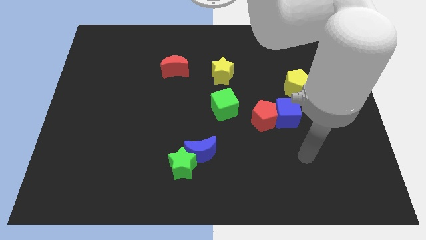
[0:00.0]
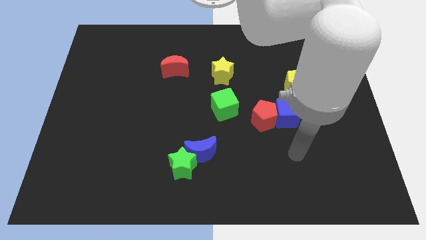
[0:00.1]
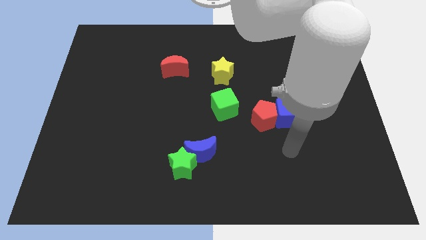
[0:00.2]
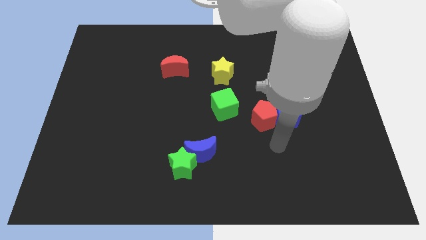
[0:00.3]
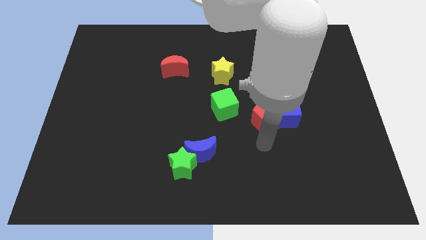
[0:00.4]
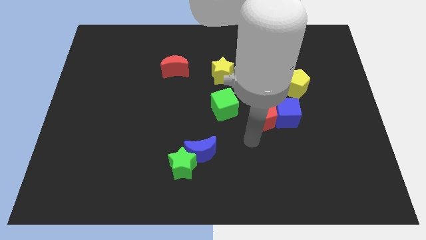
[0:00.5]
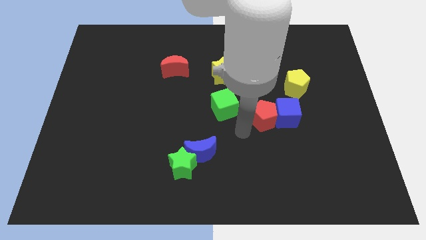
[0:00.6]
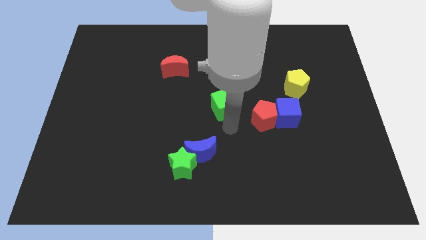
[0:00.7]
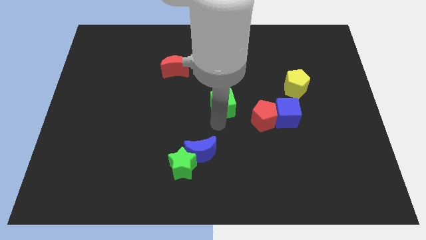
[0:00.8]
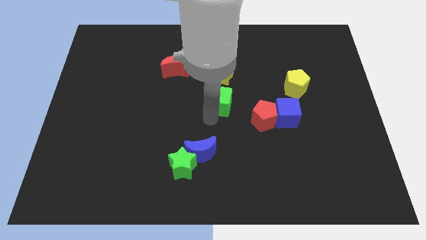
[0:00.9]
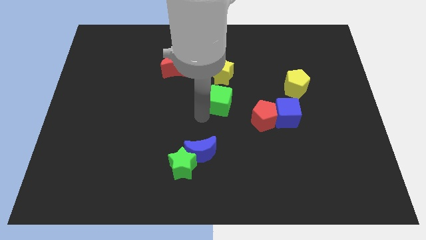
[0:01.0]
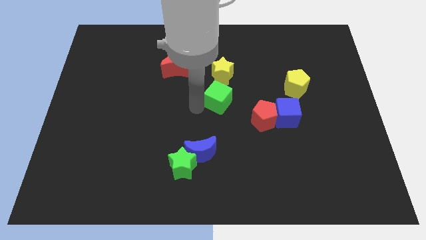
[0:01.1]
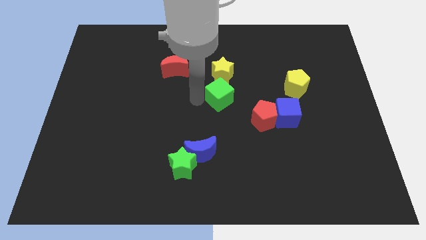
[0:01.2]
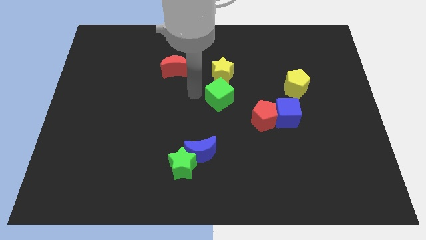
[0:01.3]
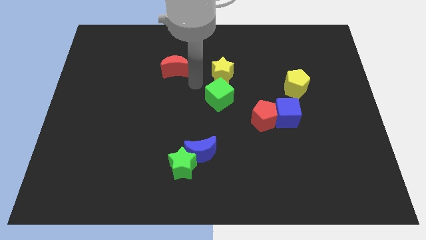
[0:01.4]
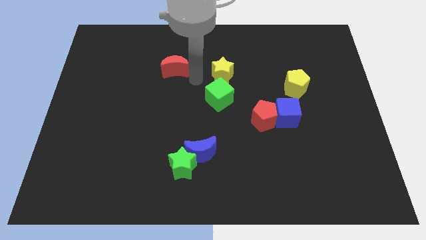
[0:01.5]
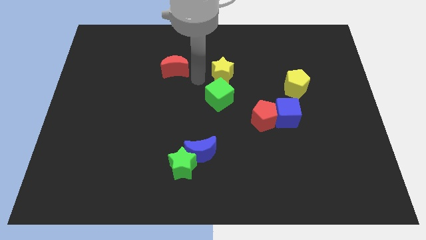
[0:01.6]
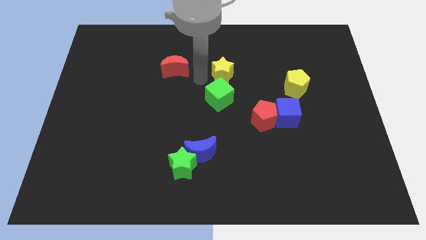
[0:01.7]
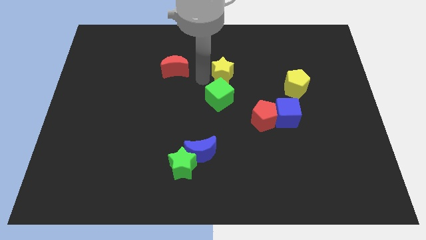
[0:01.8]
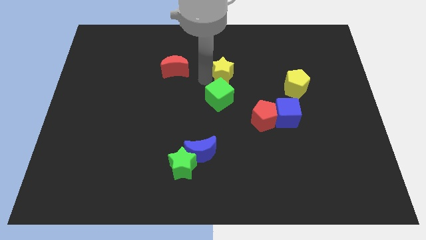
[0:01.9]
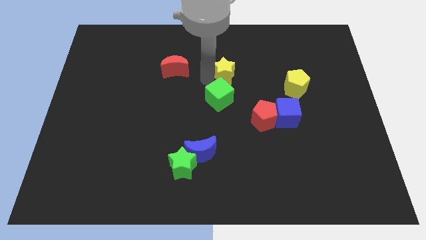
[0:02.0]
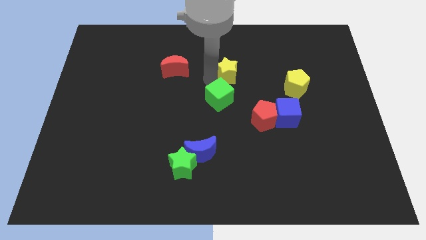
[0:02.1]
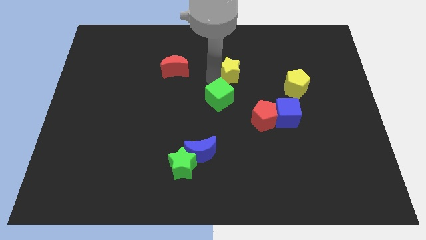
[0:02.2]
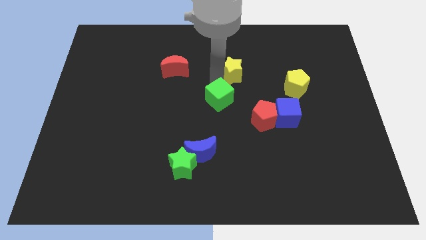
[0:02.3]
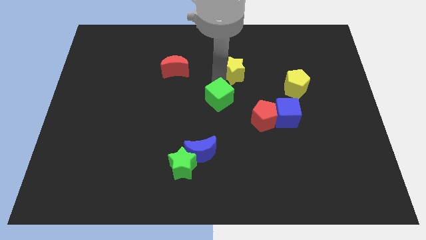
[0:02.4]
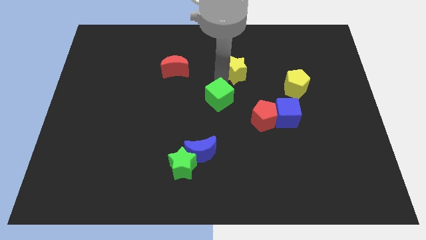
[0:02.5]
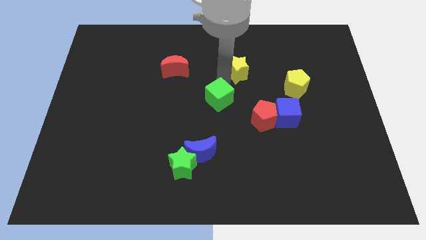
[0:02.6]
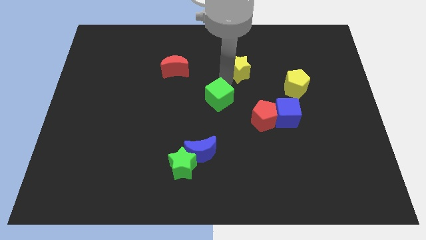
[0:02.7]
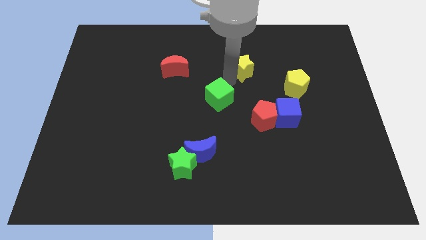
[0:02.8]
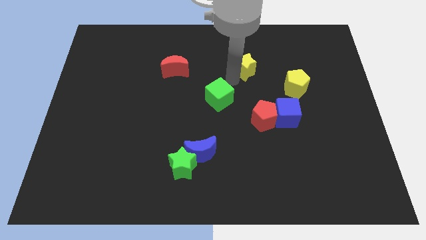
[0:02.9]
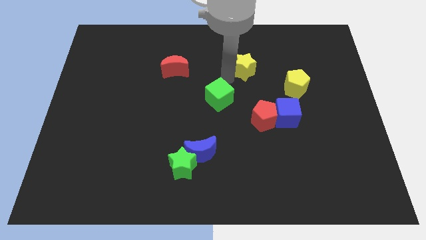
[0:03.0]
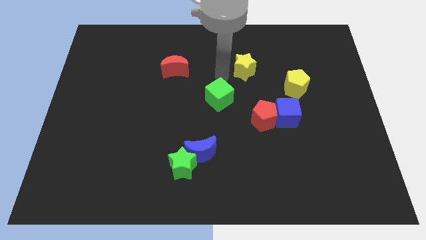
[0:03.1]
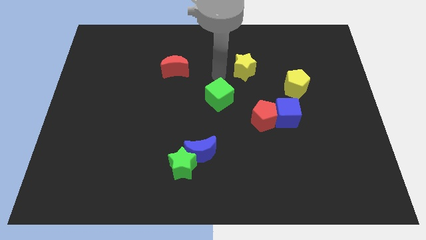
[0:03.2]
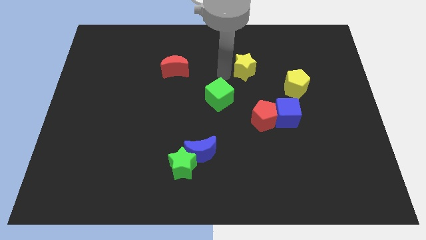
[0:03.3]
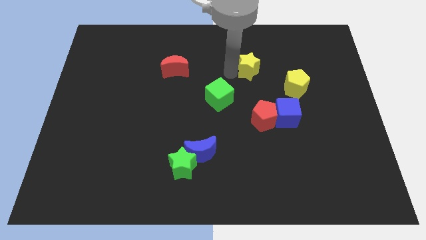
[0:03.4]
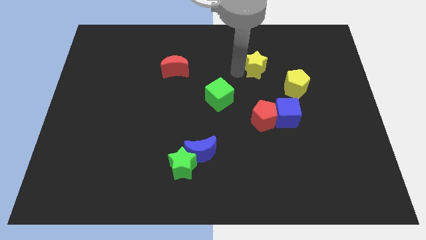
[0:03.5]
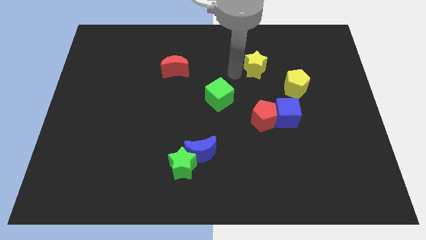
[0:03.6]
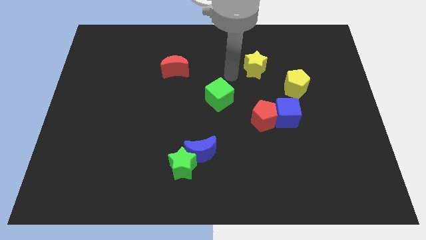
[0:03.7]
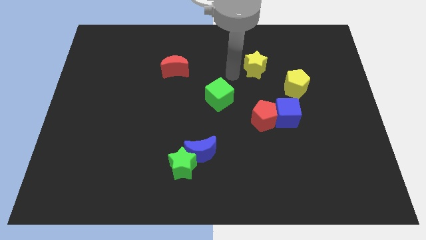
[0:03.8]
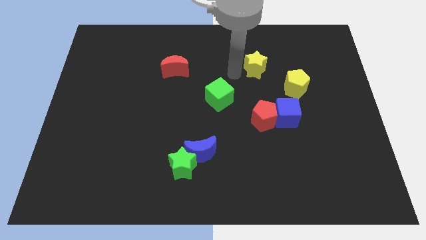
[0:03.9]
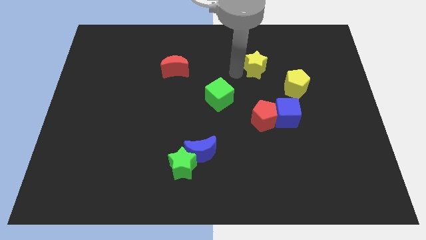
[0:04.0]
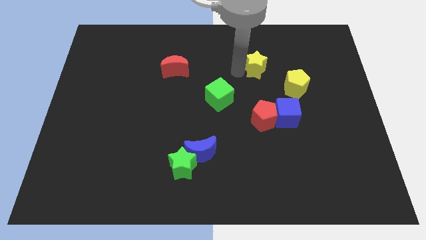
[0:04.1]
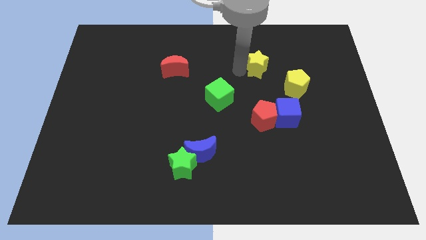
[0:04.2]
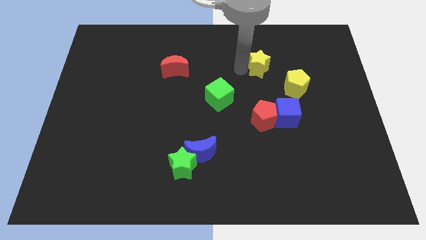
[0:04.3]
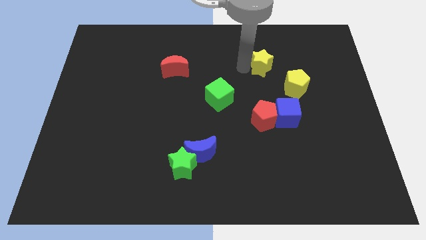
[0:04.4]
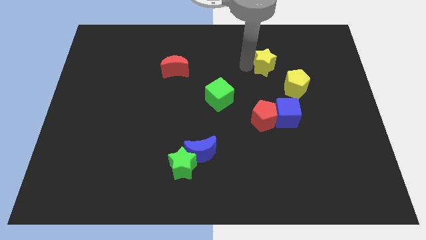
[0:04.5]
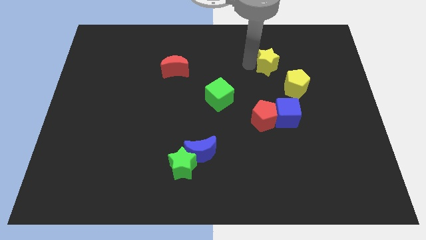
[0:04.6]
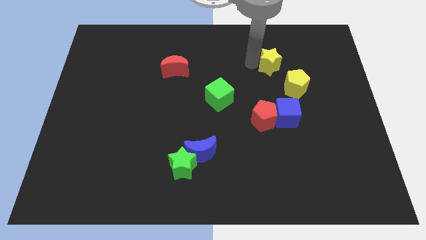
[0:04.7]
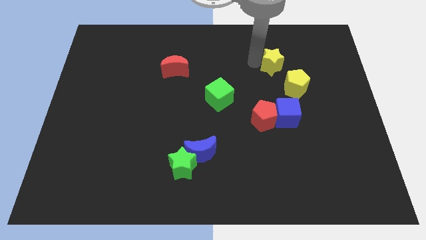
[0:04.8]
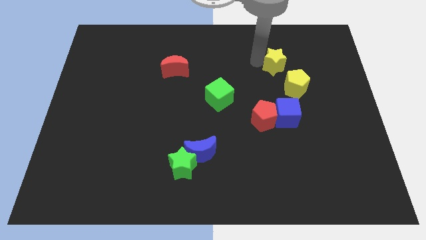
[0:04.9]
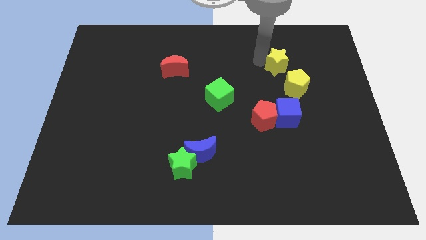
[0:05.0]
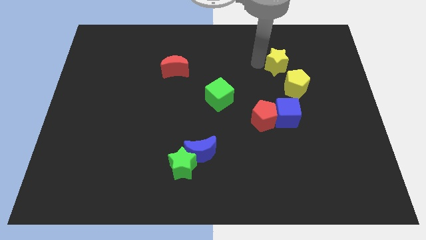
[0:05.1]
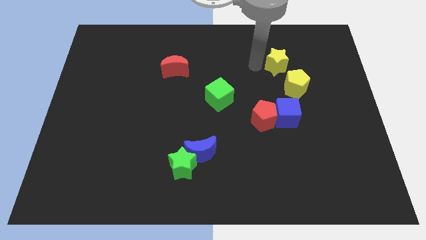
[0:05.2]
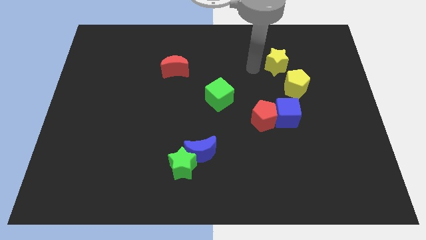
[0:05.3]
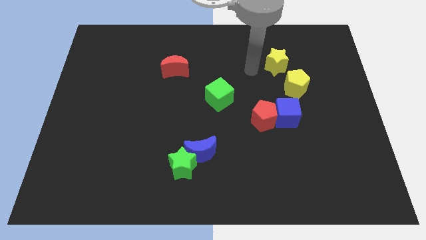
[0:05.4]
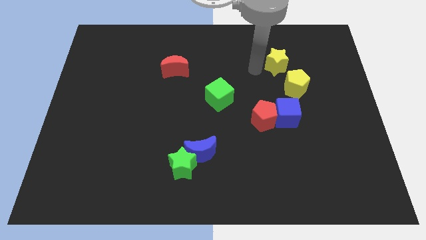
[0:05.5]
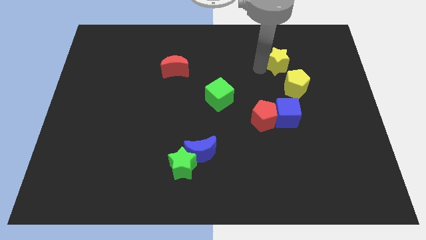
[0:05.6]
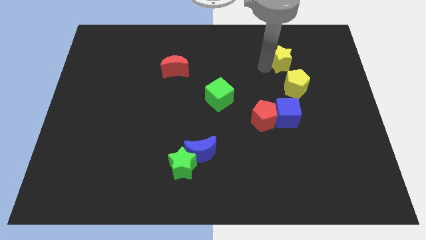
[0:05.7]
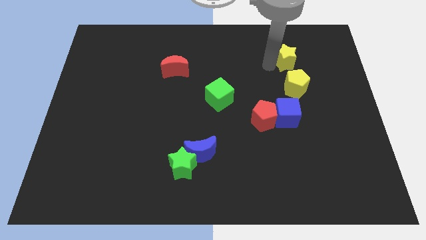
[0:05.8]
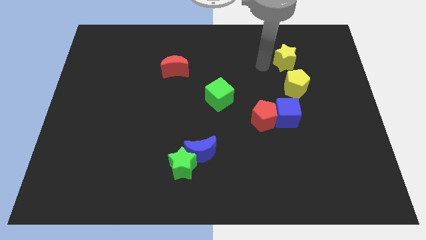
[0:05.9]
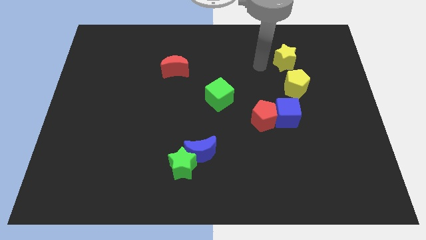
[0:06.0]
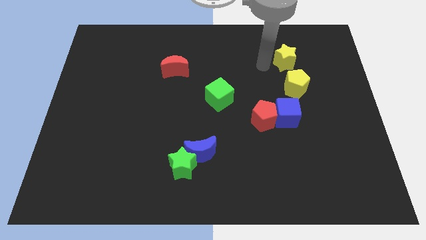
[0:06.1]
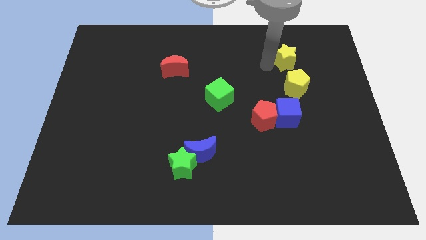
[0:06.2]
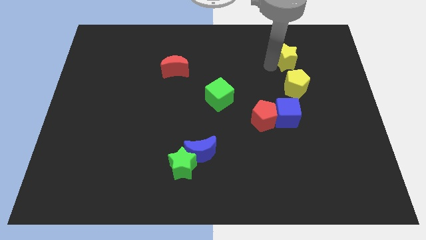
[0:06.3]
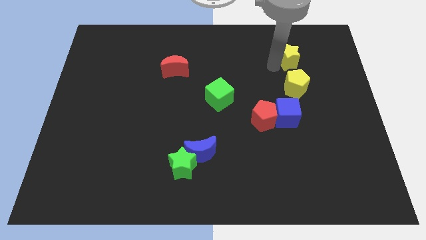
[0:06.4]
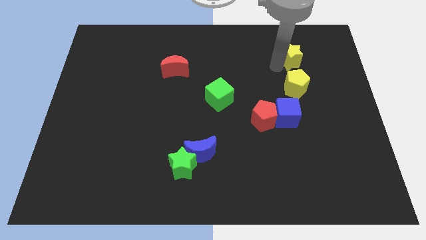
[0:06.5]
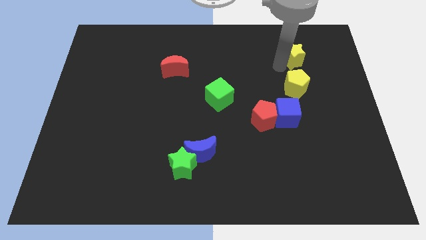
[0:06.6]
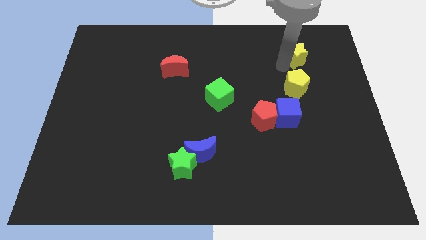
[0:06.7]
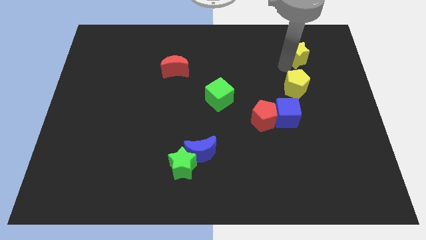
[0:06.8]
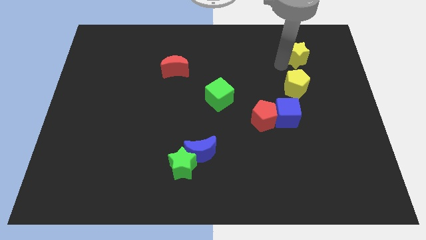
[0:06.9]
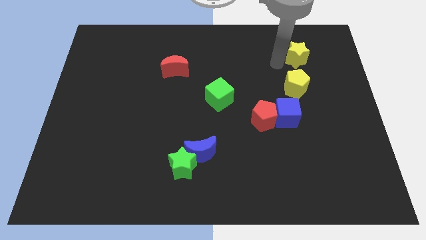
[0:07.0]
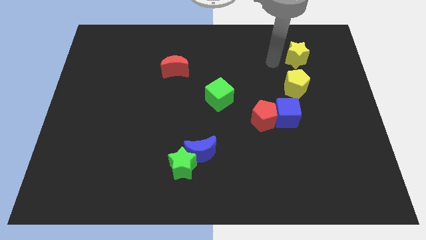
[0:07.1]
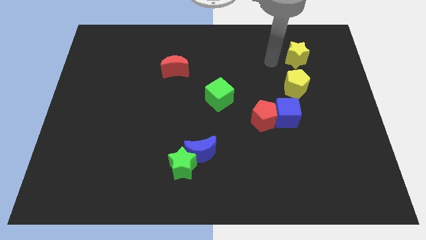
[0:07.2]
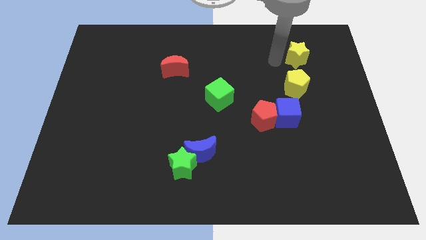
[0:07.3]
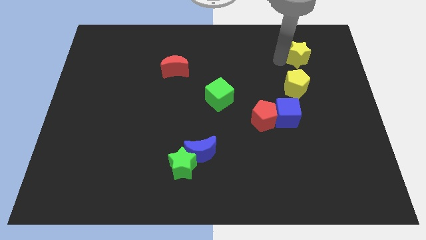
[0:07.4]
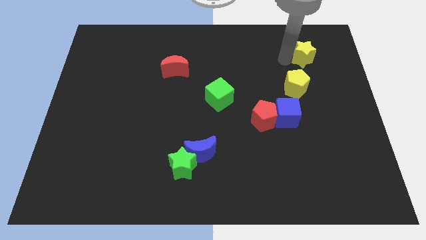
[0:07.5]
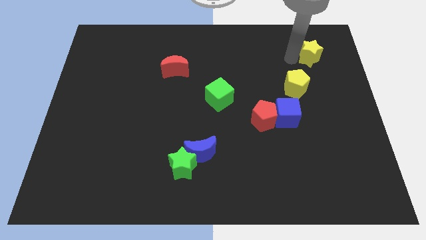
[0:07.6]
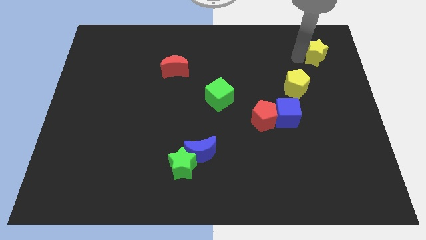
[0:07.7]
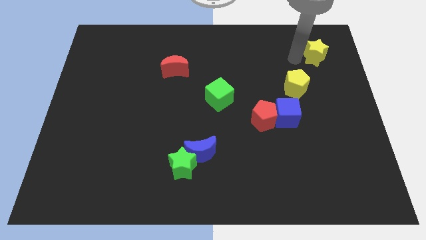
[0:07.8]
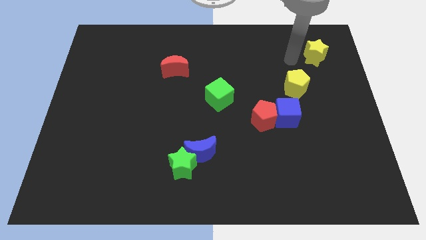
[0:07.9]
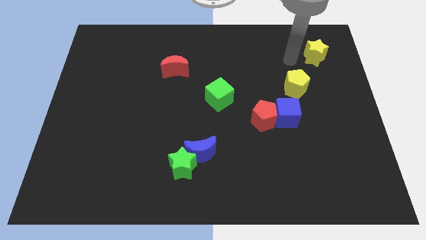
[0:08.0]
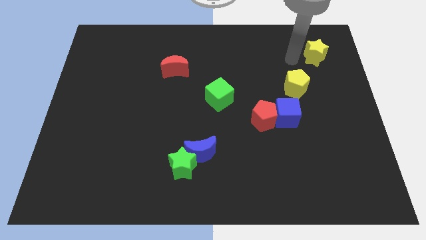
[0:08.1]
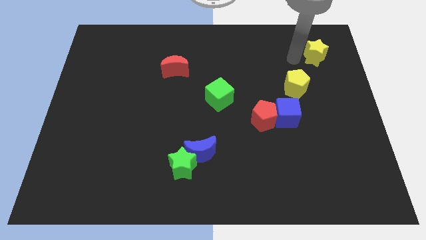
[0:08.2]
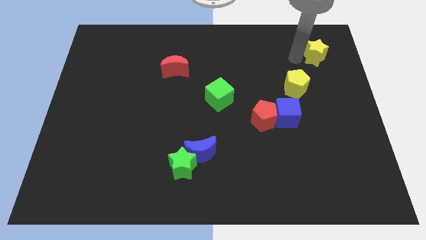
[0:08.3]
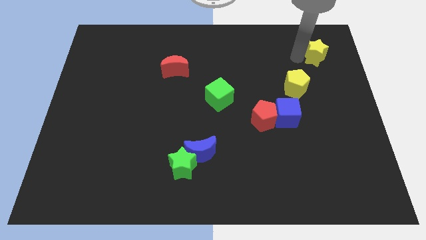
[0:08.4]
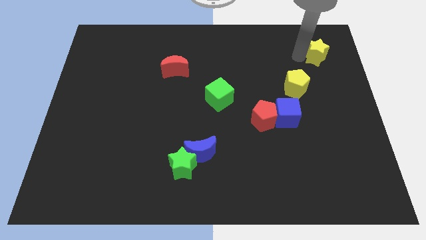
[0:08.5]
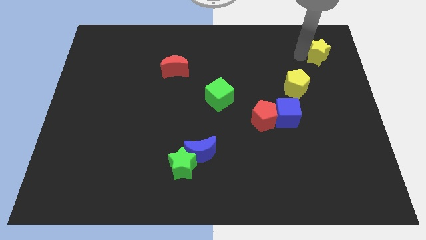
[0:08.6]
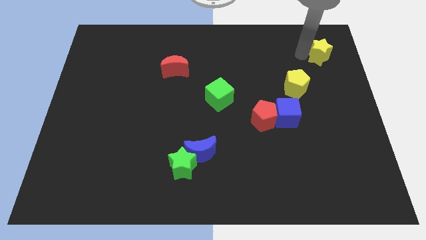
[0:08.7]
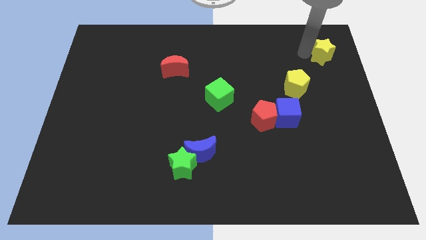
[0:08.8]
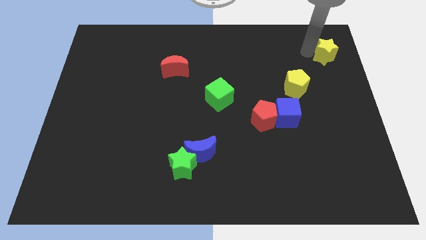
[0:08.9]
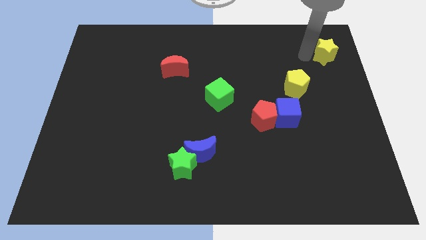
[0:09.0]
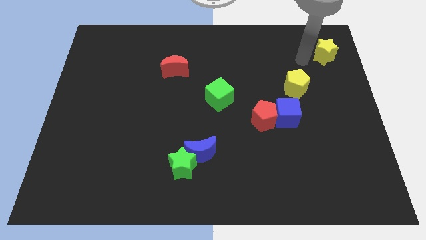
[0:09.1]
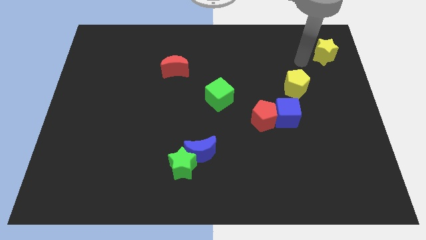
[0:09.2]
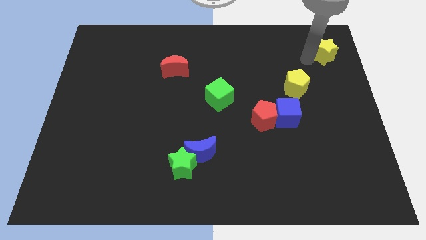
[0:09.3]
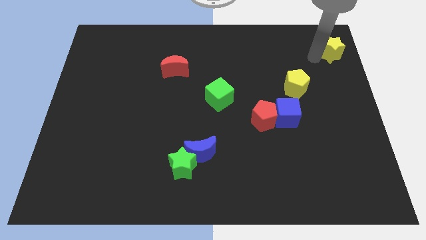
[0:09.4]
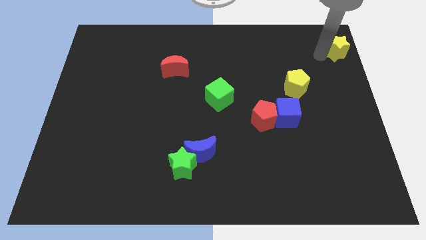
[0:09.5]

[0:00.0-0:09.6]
put the yellow star to the top right
